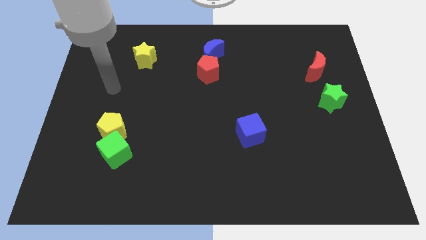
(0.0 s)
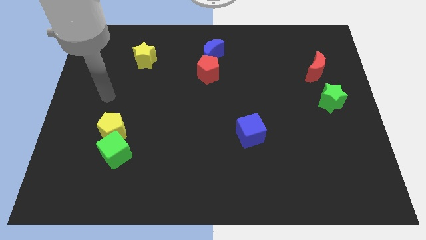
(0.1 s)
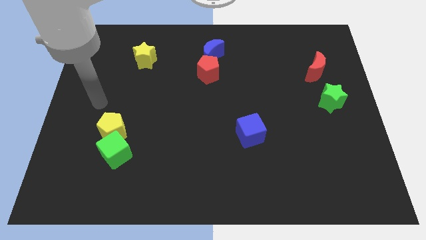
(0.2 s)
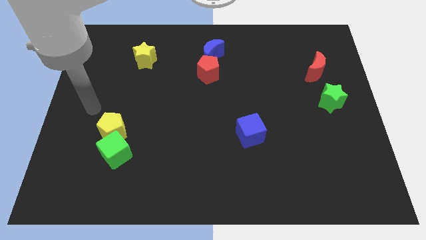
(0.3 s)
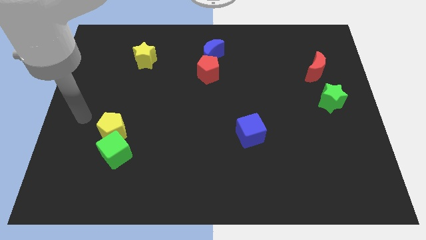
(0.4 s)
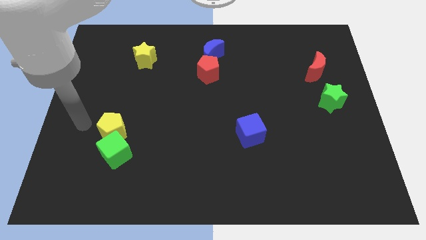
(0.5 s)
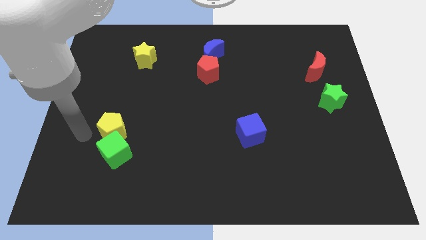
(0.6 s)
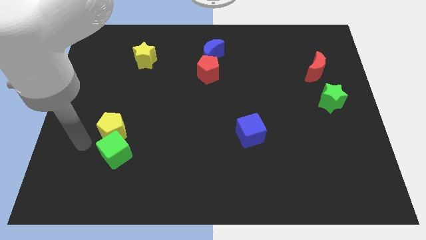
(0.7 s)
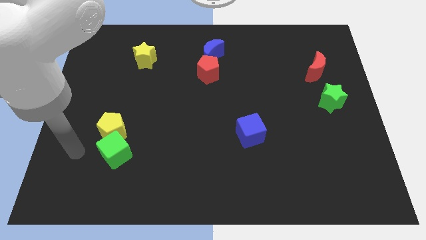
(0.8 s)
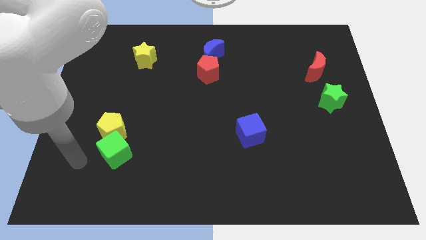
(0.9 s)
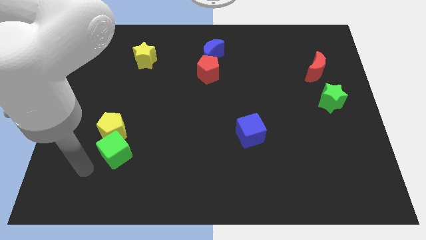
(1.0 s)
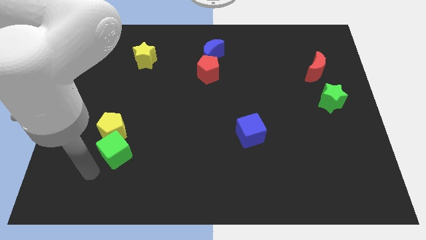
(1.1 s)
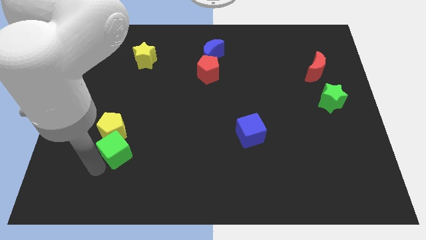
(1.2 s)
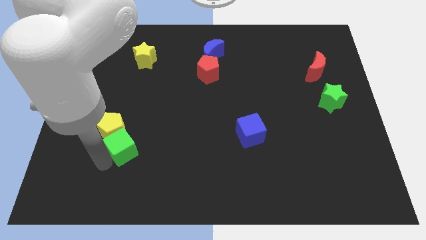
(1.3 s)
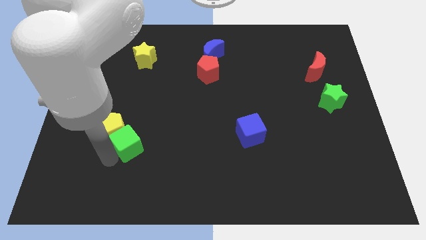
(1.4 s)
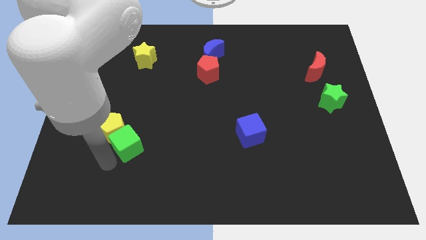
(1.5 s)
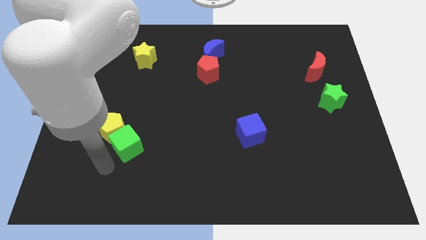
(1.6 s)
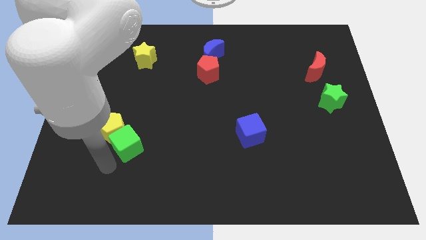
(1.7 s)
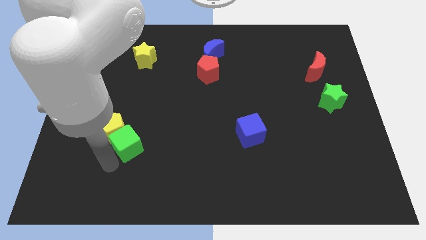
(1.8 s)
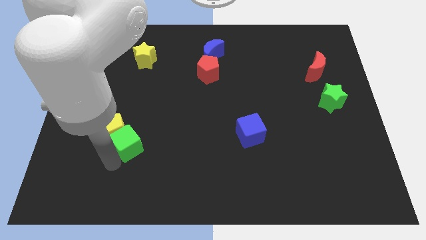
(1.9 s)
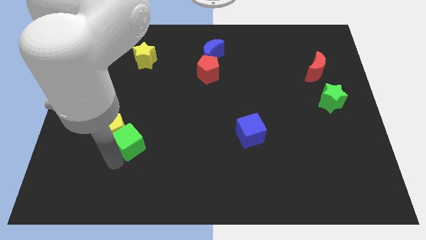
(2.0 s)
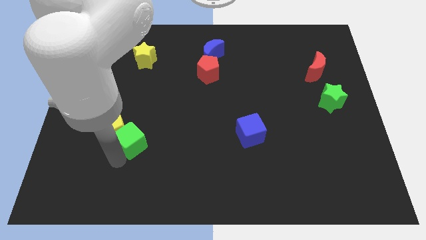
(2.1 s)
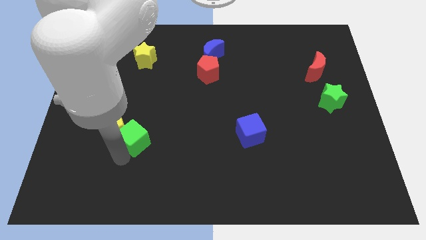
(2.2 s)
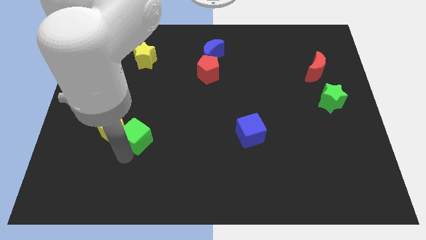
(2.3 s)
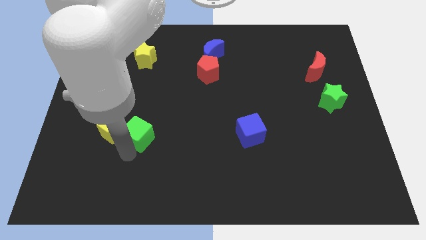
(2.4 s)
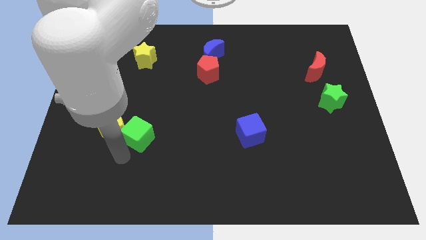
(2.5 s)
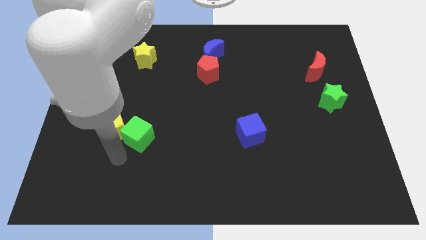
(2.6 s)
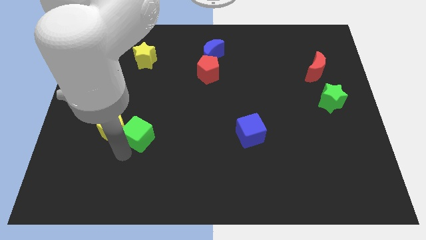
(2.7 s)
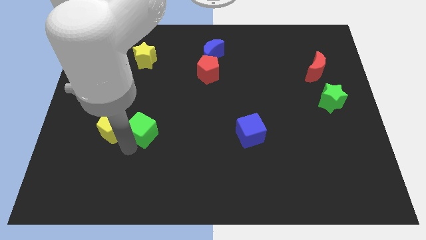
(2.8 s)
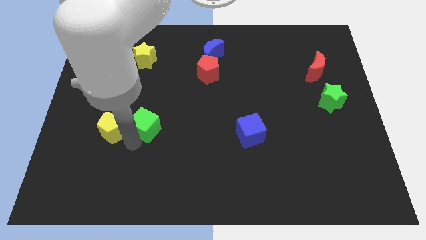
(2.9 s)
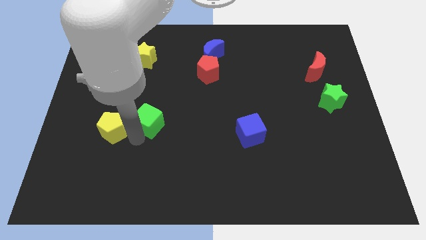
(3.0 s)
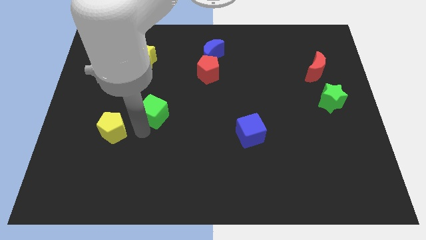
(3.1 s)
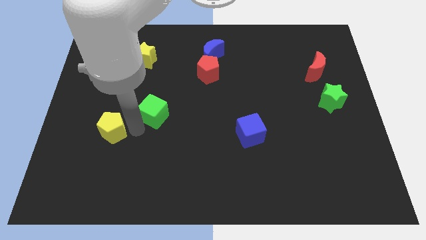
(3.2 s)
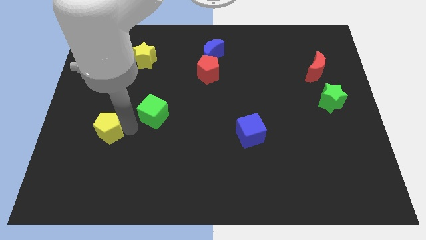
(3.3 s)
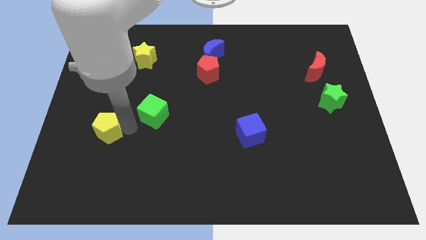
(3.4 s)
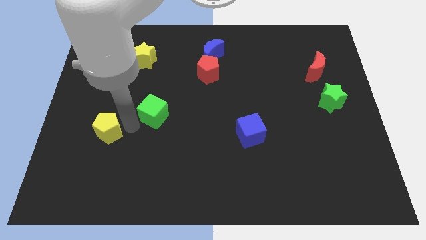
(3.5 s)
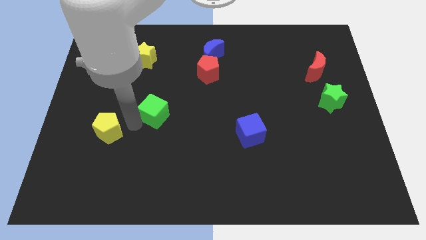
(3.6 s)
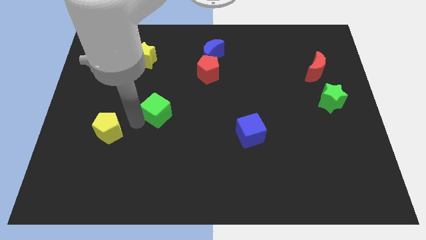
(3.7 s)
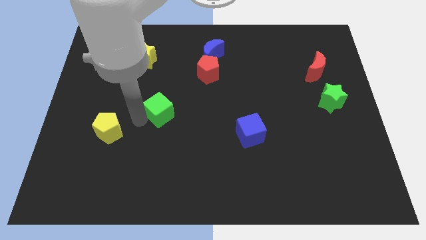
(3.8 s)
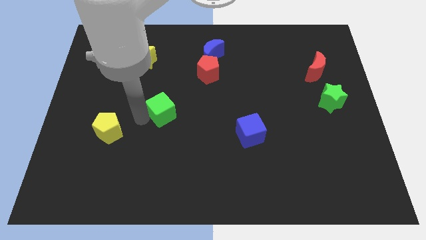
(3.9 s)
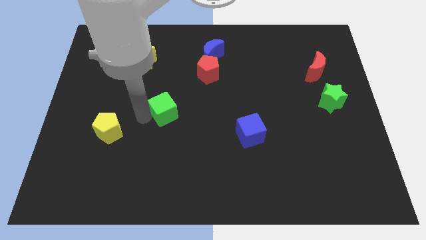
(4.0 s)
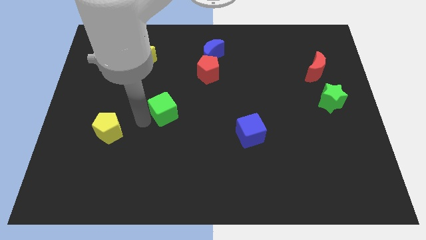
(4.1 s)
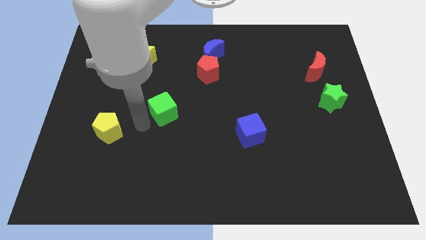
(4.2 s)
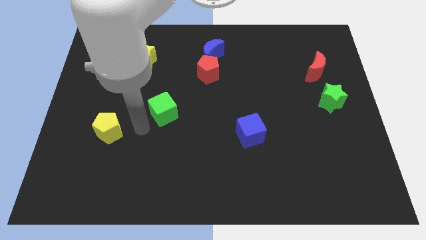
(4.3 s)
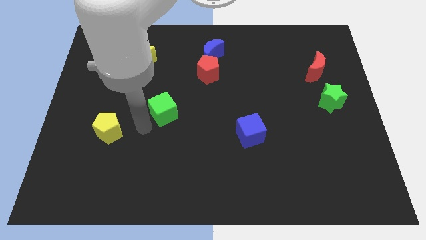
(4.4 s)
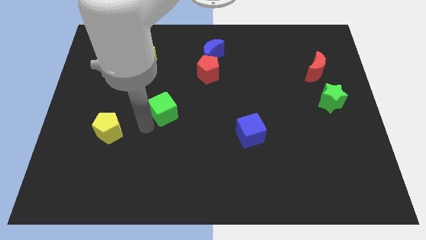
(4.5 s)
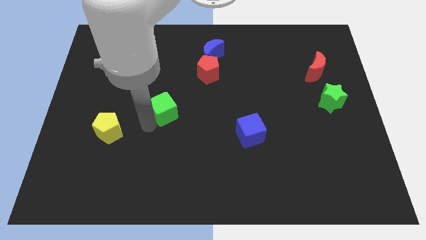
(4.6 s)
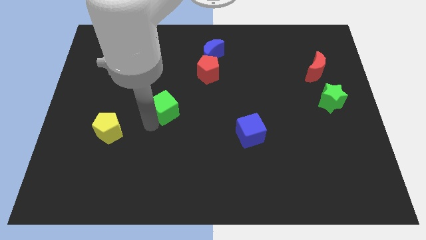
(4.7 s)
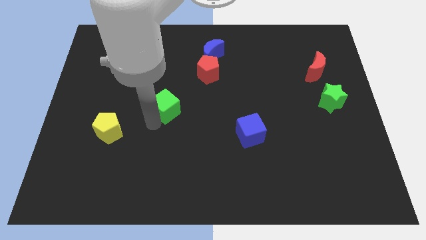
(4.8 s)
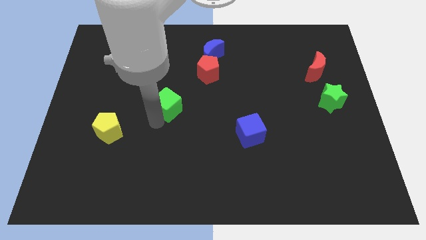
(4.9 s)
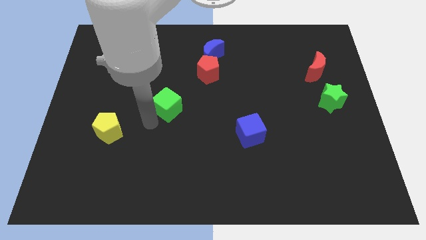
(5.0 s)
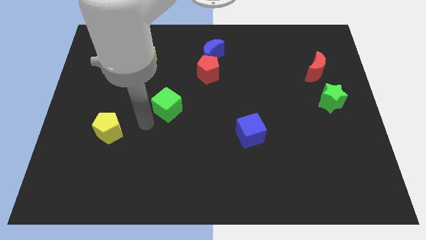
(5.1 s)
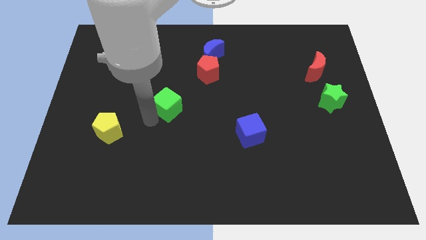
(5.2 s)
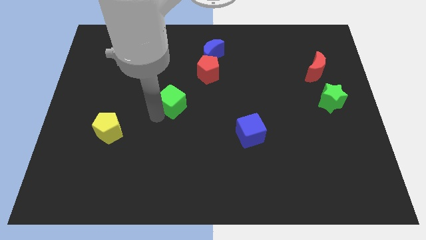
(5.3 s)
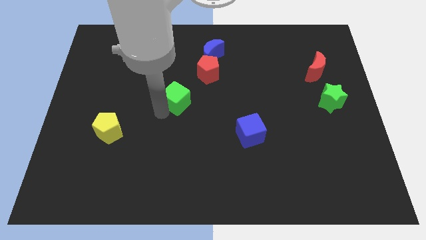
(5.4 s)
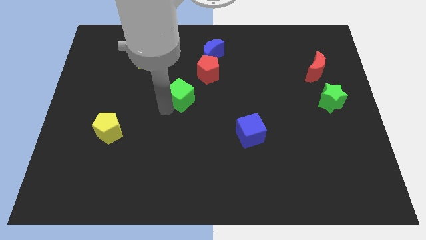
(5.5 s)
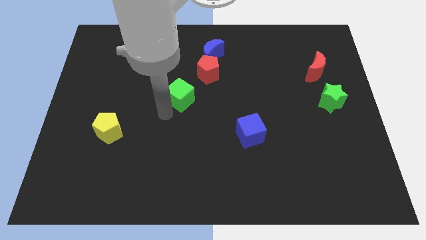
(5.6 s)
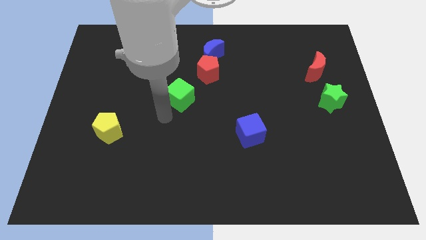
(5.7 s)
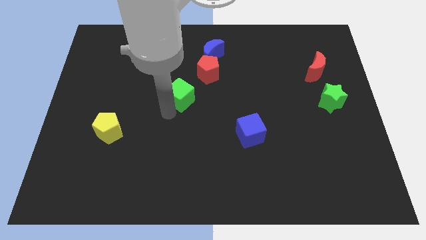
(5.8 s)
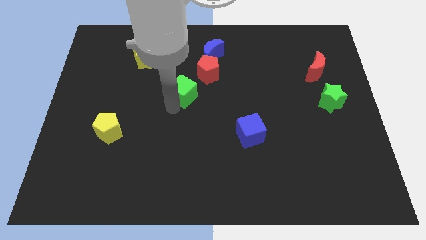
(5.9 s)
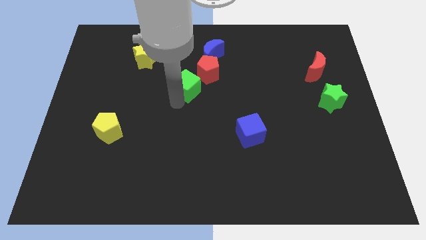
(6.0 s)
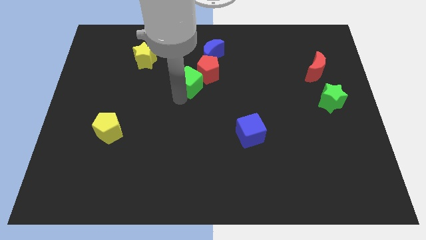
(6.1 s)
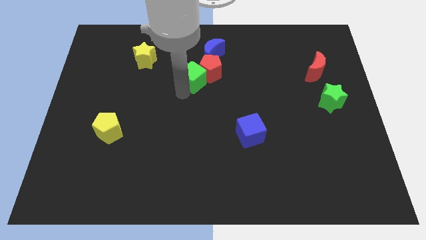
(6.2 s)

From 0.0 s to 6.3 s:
put the green cube towards the red pentagon
